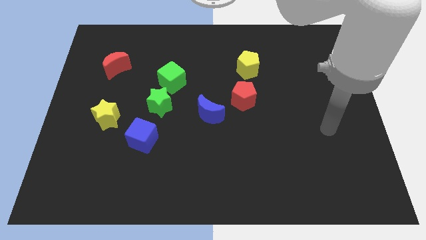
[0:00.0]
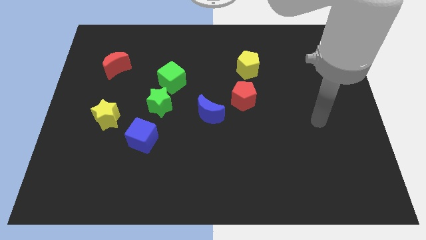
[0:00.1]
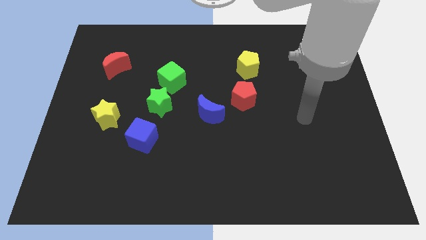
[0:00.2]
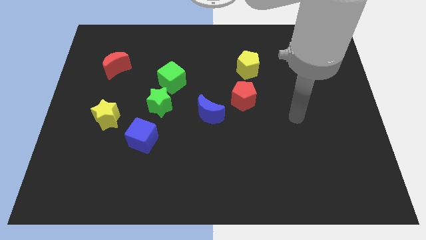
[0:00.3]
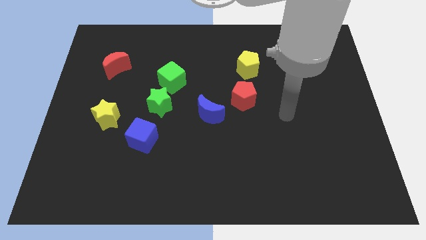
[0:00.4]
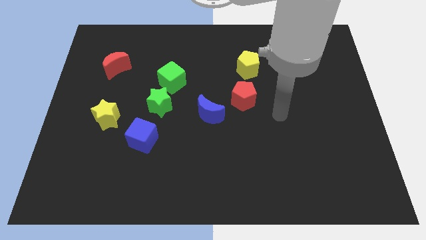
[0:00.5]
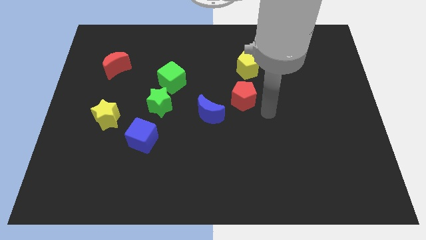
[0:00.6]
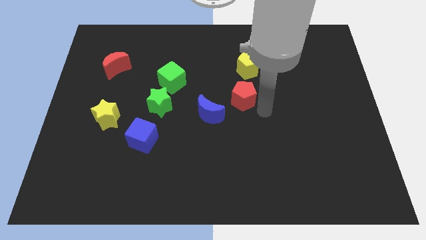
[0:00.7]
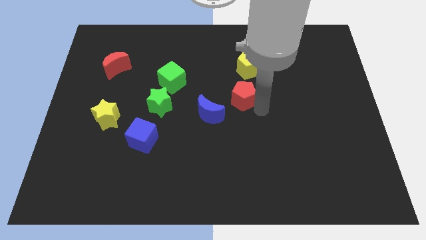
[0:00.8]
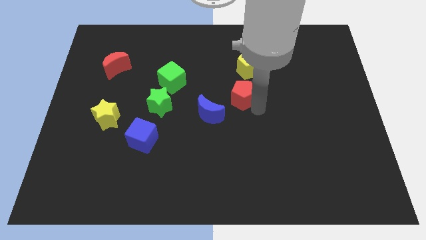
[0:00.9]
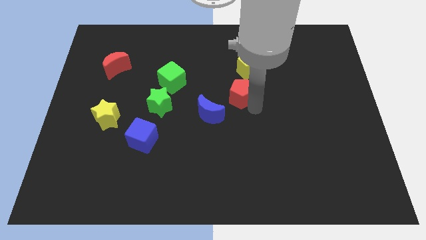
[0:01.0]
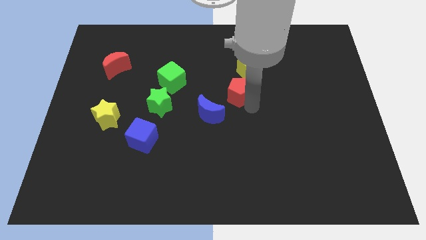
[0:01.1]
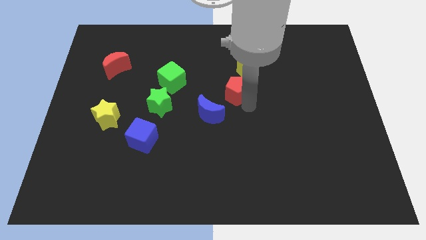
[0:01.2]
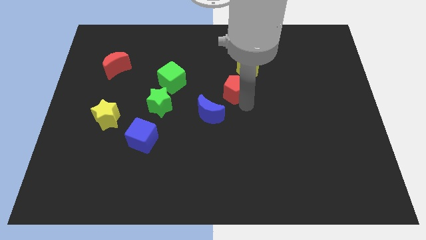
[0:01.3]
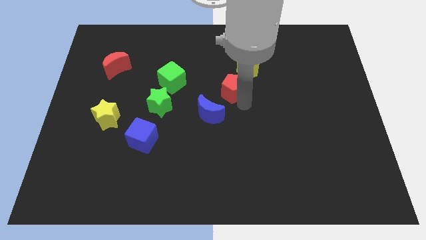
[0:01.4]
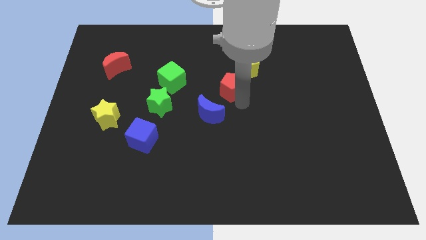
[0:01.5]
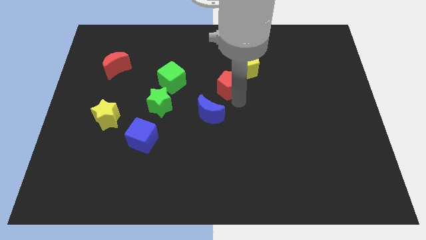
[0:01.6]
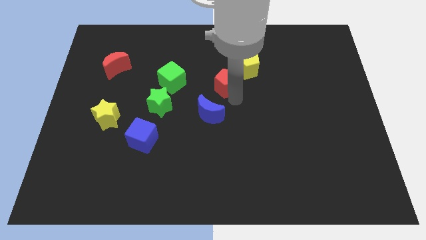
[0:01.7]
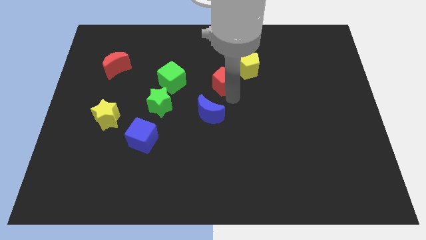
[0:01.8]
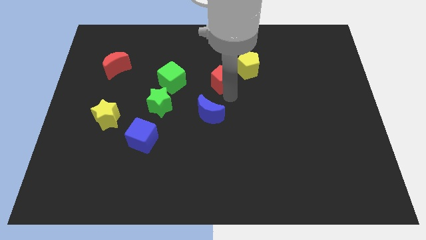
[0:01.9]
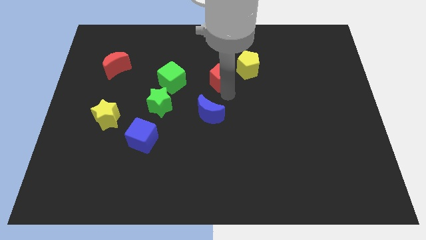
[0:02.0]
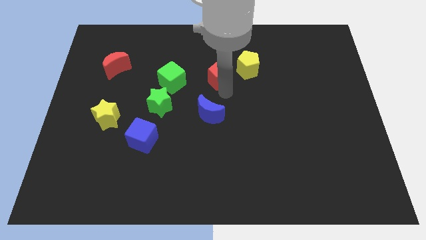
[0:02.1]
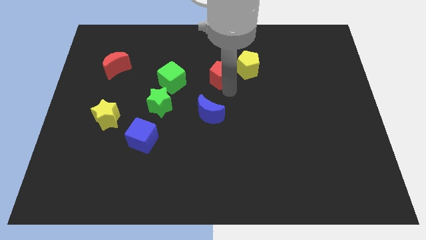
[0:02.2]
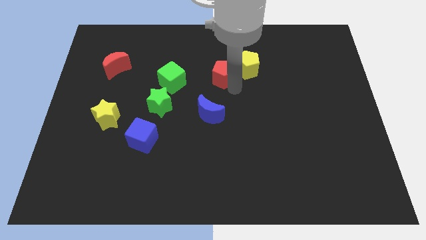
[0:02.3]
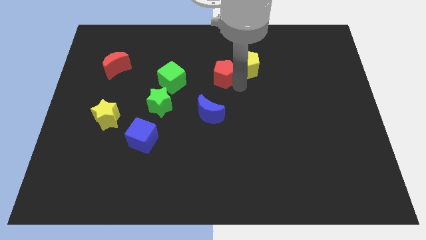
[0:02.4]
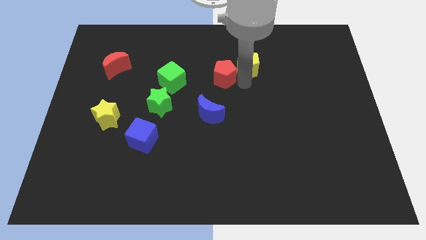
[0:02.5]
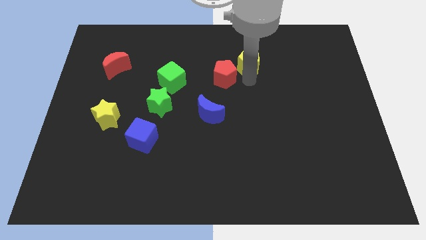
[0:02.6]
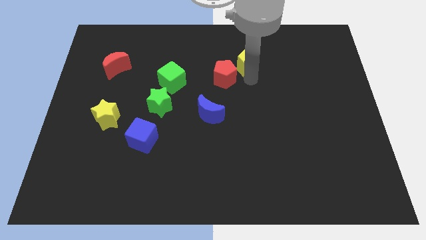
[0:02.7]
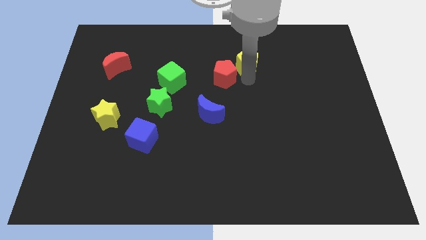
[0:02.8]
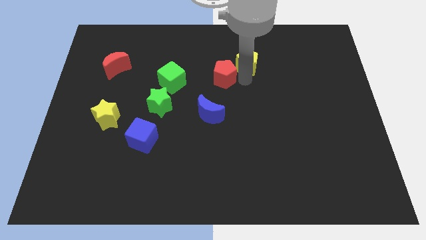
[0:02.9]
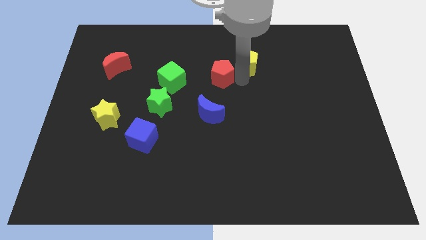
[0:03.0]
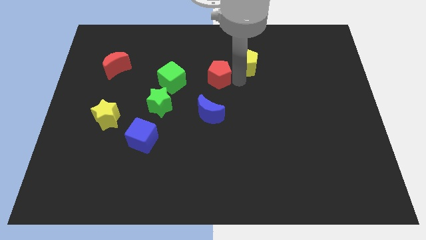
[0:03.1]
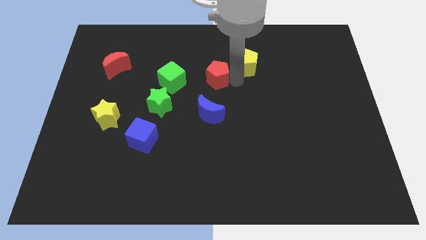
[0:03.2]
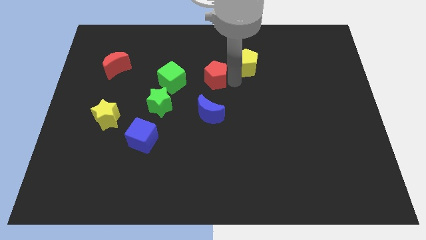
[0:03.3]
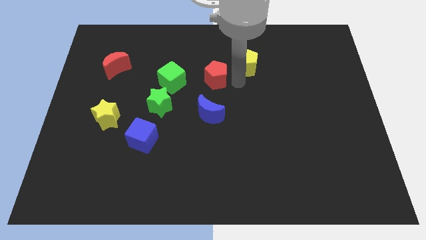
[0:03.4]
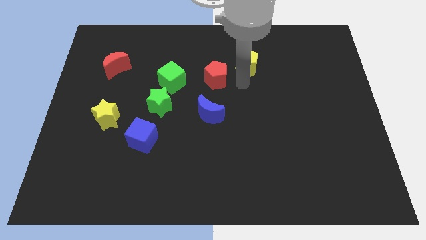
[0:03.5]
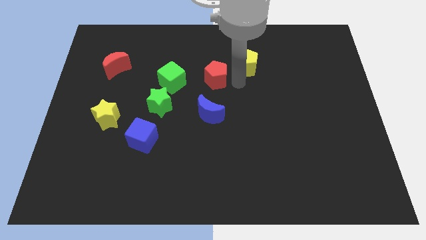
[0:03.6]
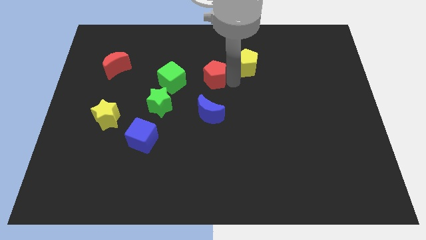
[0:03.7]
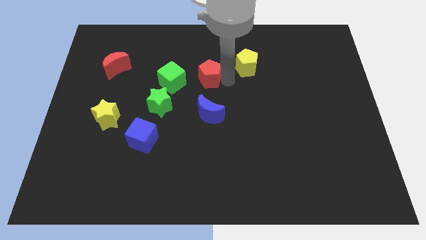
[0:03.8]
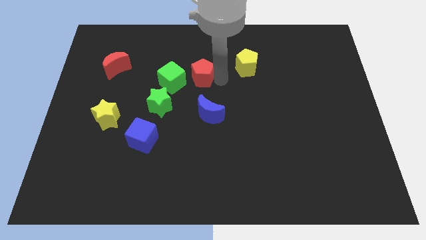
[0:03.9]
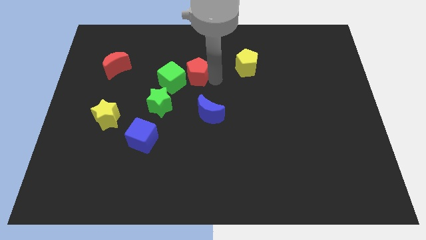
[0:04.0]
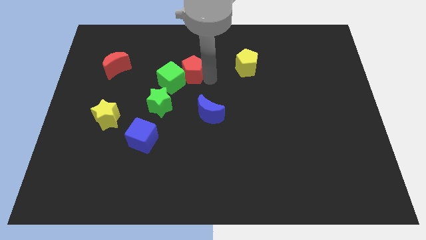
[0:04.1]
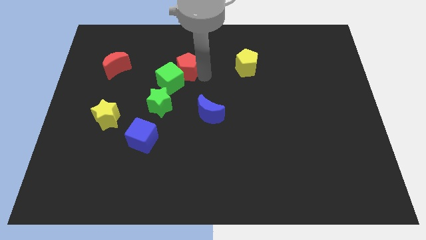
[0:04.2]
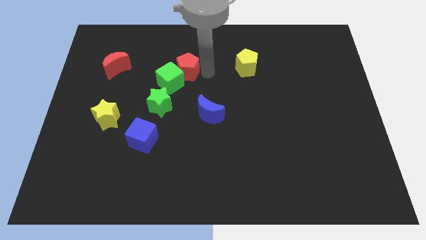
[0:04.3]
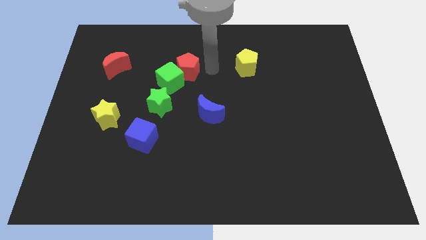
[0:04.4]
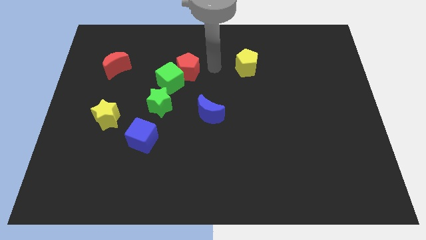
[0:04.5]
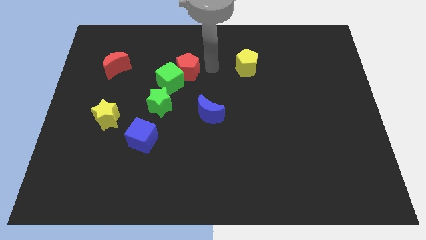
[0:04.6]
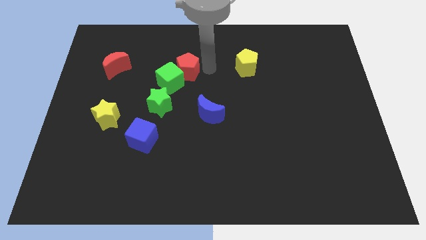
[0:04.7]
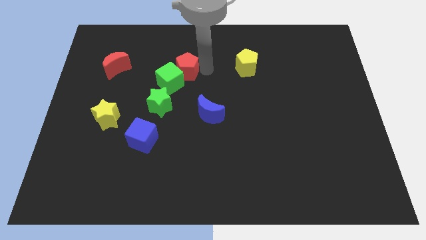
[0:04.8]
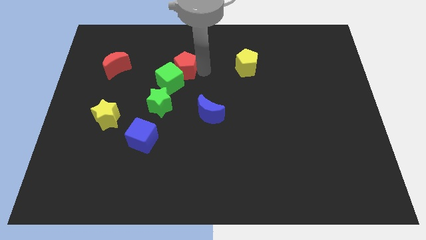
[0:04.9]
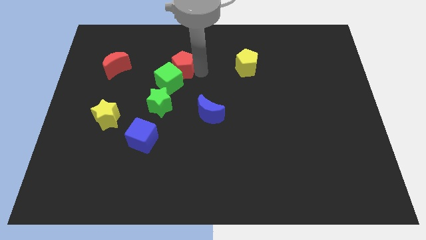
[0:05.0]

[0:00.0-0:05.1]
slide the red pentagon to the top side of the green star

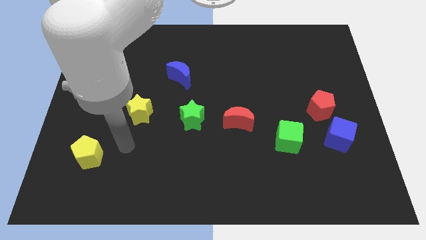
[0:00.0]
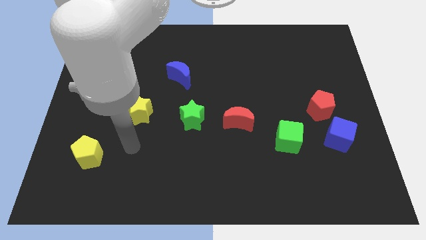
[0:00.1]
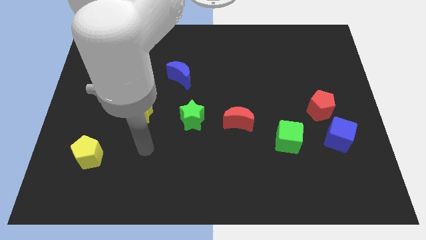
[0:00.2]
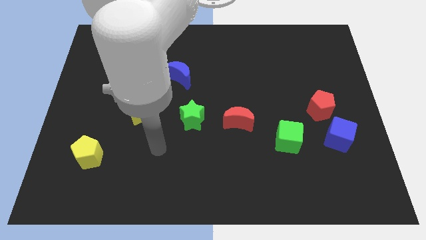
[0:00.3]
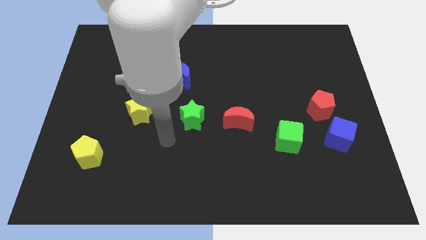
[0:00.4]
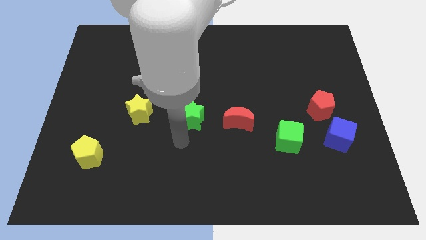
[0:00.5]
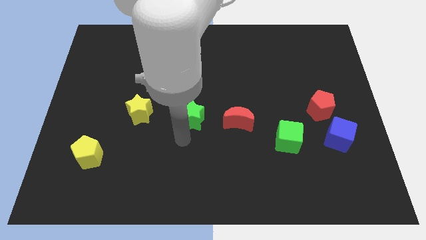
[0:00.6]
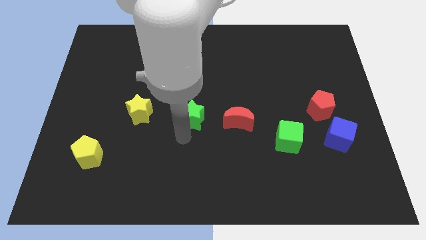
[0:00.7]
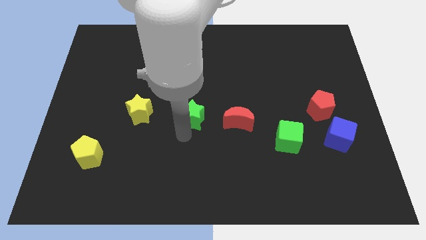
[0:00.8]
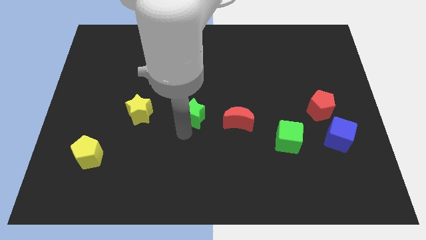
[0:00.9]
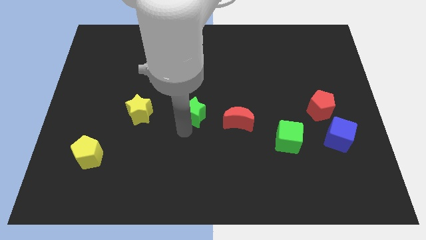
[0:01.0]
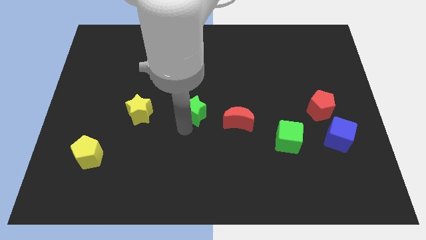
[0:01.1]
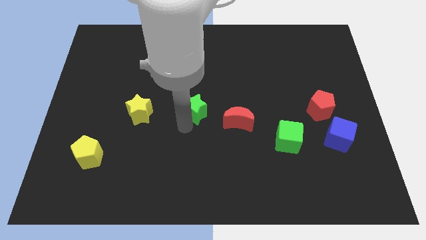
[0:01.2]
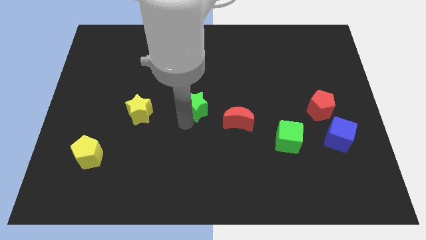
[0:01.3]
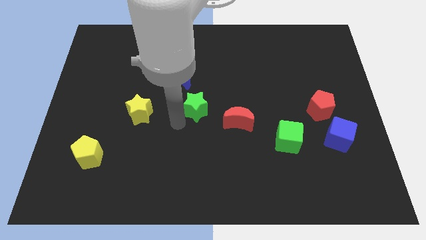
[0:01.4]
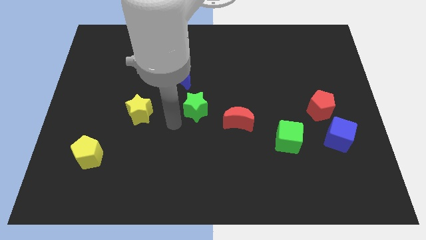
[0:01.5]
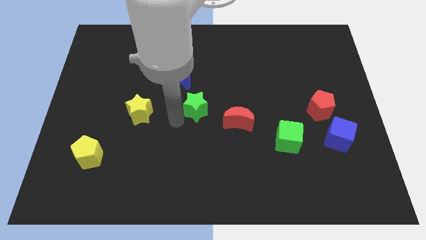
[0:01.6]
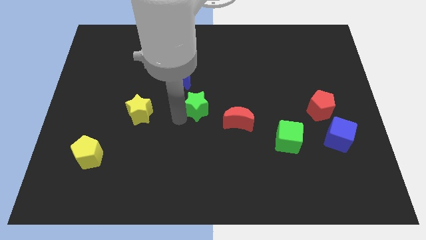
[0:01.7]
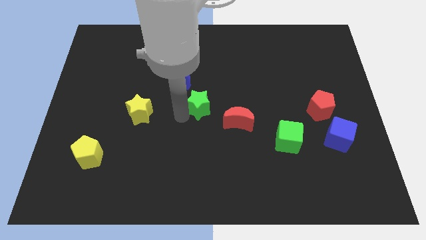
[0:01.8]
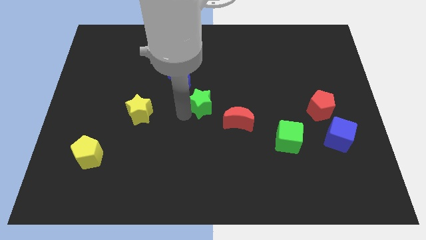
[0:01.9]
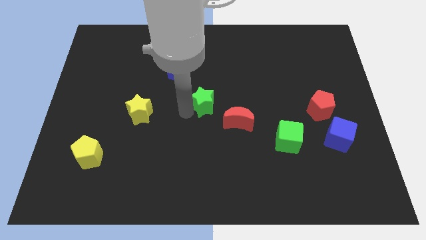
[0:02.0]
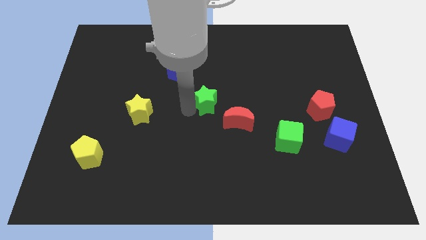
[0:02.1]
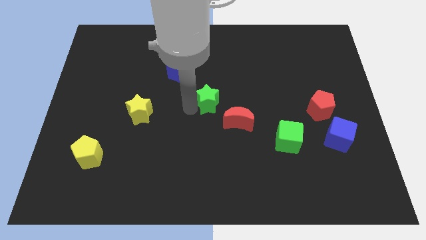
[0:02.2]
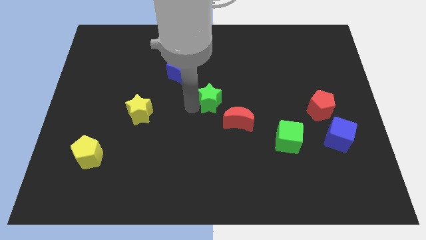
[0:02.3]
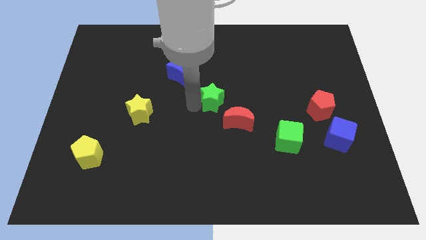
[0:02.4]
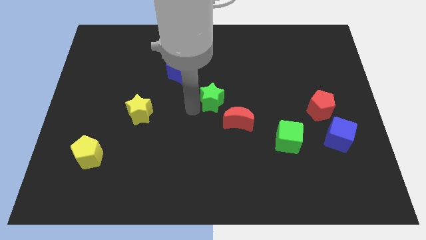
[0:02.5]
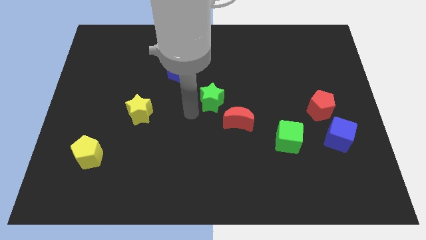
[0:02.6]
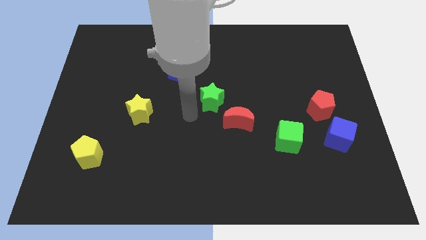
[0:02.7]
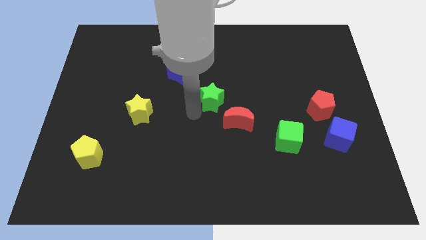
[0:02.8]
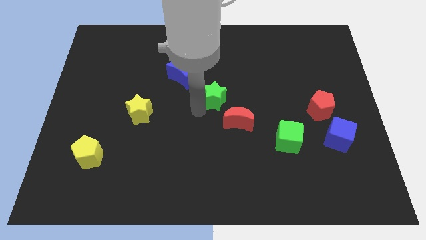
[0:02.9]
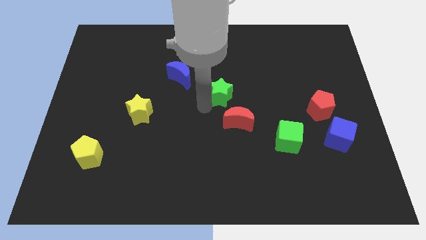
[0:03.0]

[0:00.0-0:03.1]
move the green star to the top of the red moon
